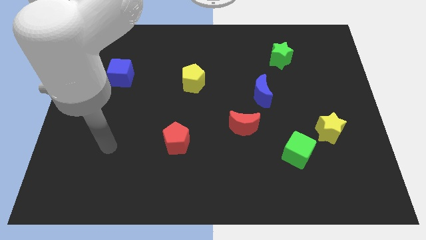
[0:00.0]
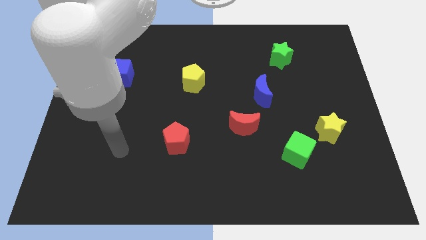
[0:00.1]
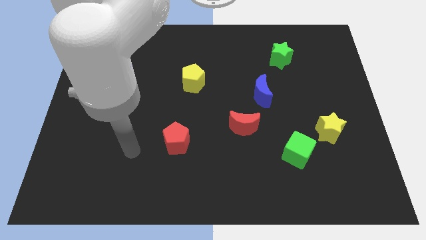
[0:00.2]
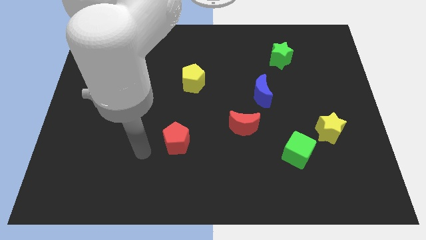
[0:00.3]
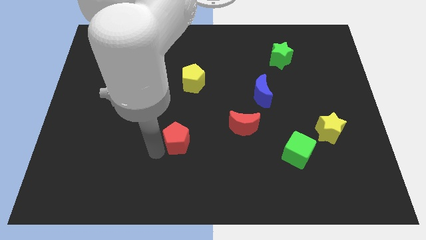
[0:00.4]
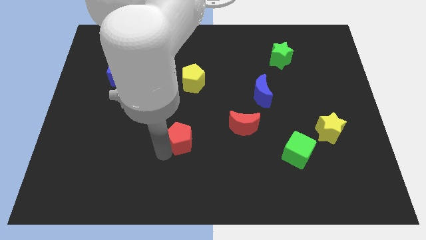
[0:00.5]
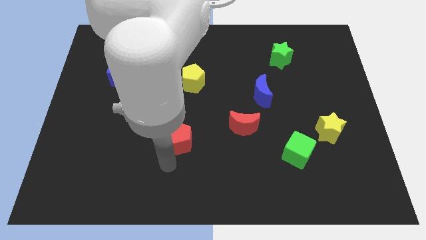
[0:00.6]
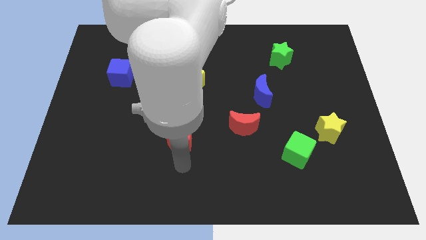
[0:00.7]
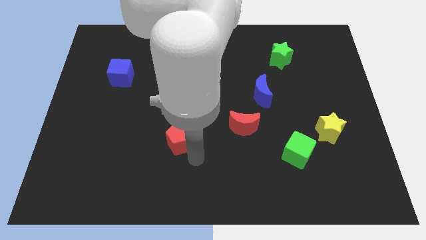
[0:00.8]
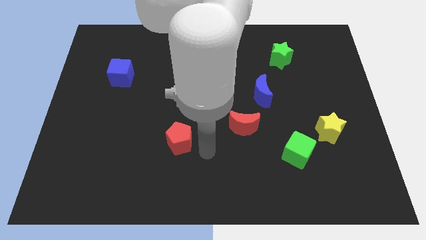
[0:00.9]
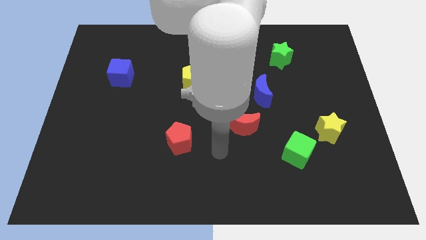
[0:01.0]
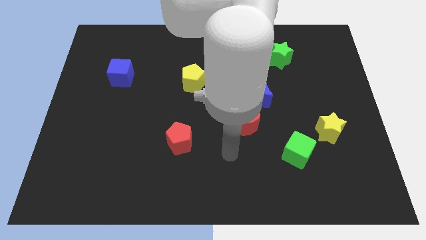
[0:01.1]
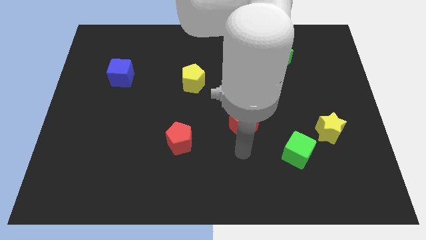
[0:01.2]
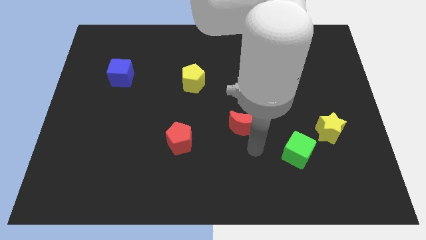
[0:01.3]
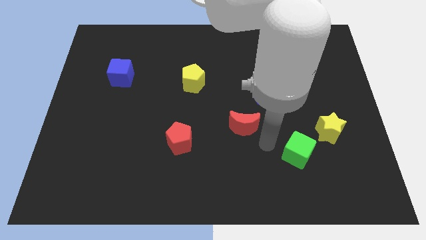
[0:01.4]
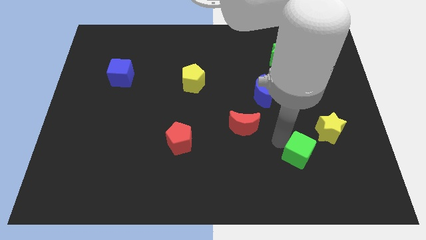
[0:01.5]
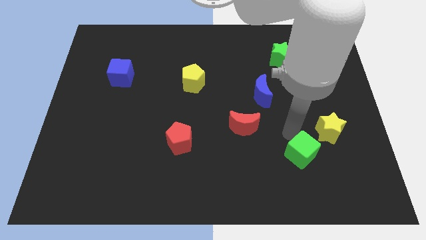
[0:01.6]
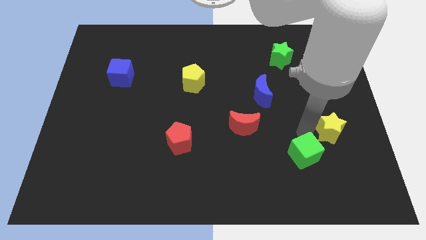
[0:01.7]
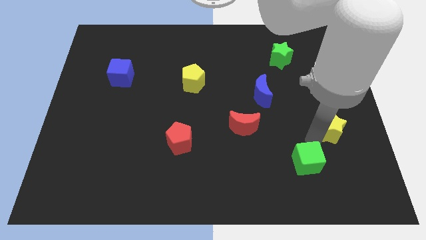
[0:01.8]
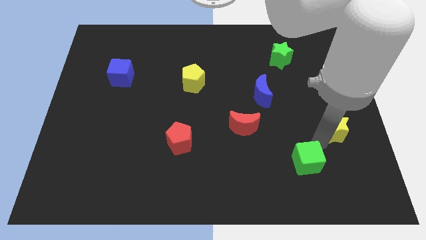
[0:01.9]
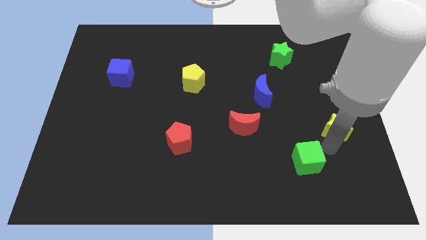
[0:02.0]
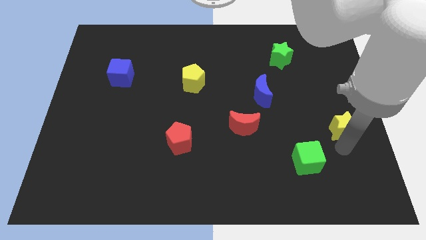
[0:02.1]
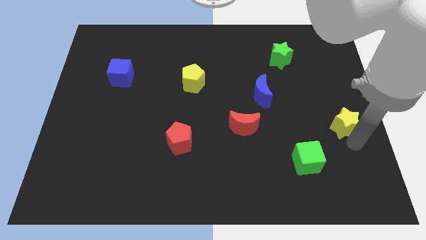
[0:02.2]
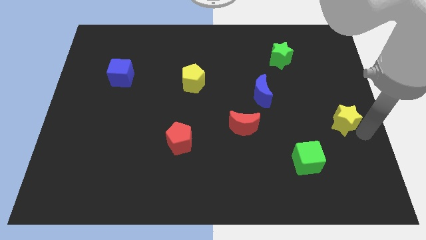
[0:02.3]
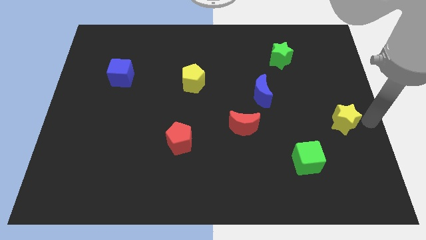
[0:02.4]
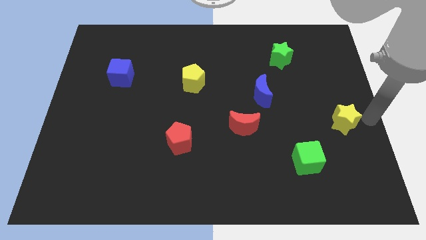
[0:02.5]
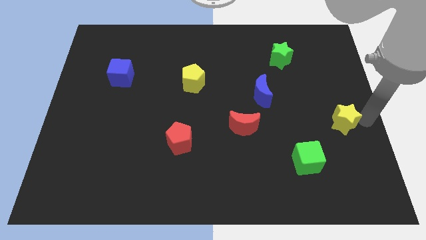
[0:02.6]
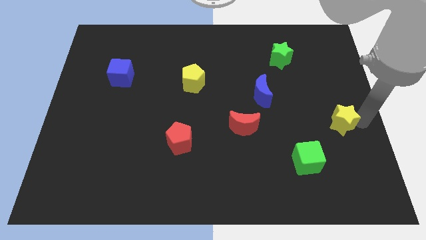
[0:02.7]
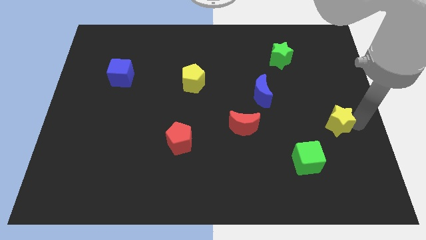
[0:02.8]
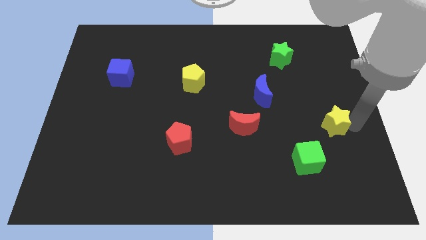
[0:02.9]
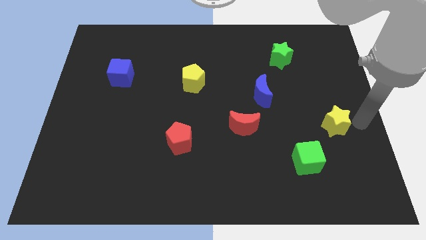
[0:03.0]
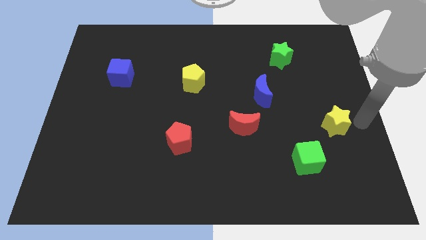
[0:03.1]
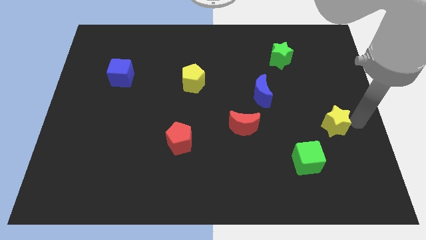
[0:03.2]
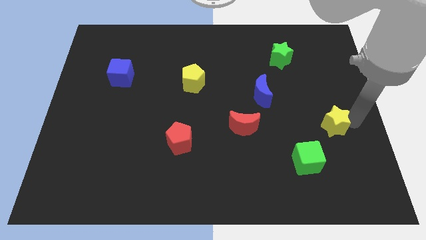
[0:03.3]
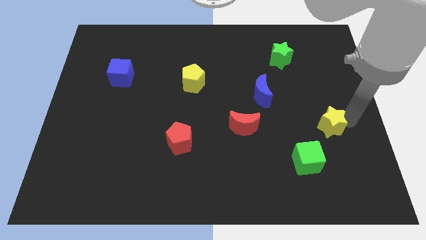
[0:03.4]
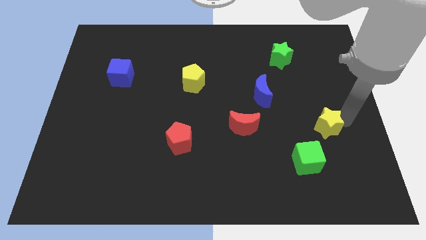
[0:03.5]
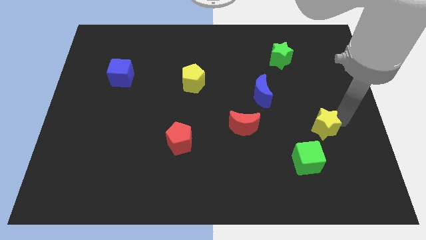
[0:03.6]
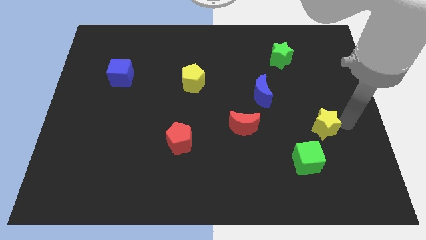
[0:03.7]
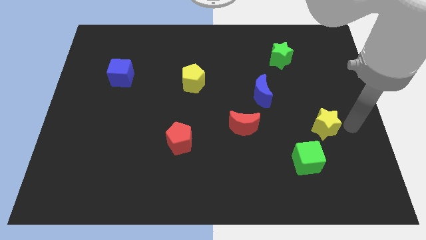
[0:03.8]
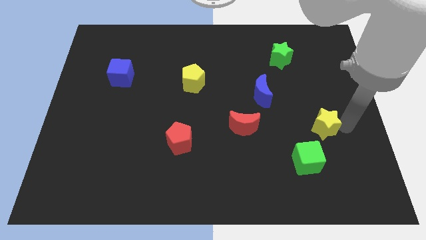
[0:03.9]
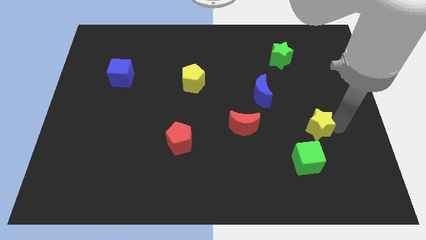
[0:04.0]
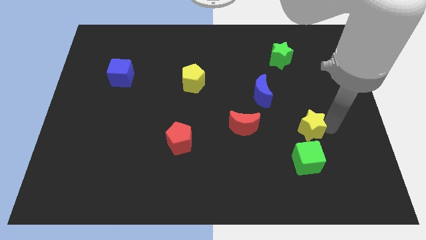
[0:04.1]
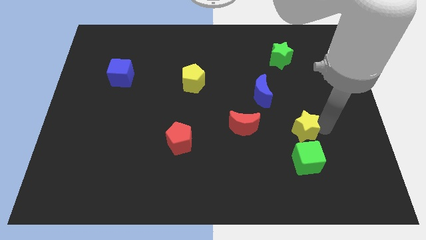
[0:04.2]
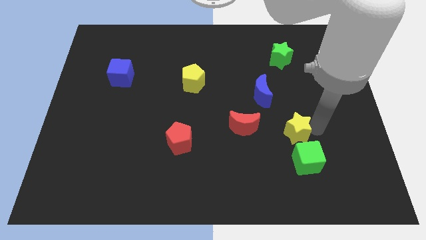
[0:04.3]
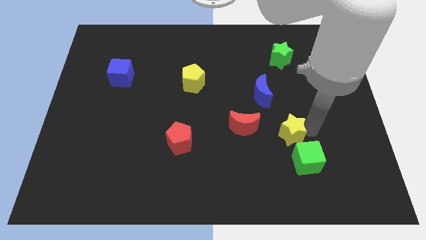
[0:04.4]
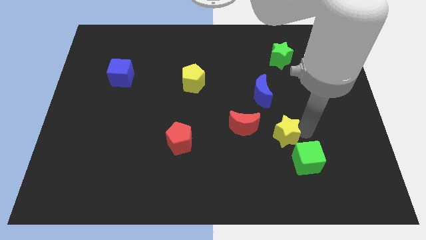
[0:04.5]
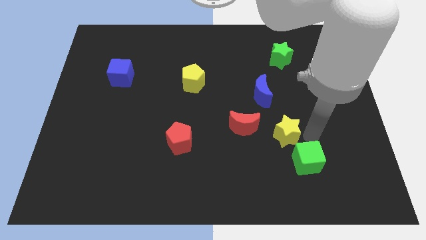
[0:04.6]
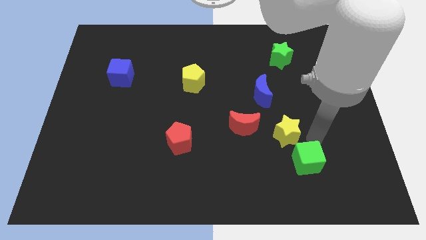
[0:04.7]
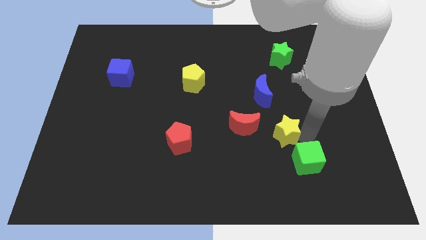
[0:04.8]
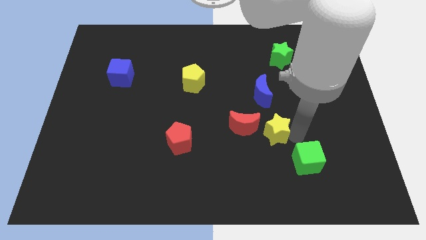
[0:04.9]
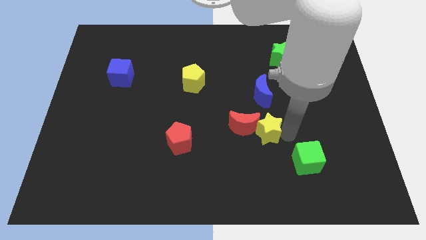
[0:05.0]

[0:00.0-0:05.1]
move the yellow star to the red moon

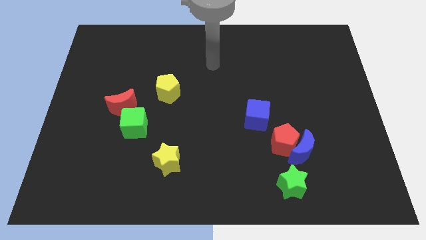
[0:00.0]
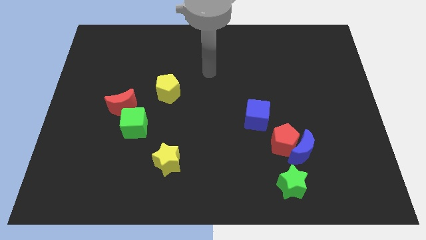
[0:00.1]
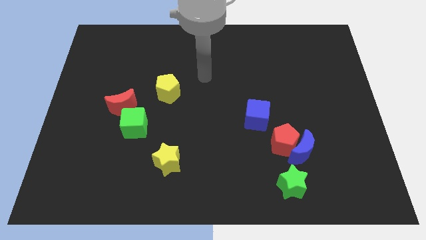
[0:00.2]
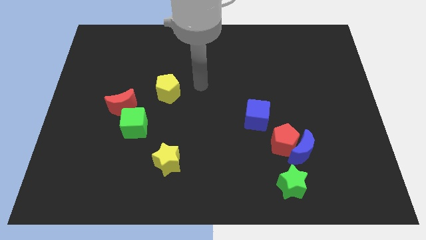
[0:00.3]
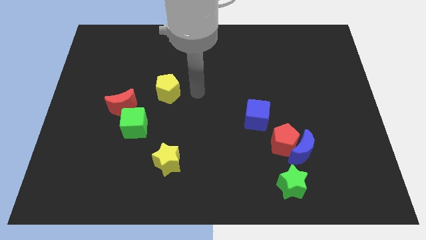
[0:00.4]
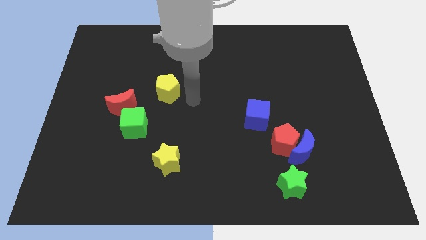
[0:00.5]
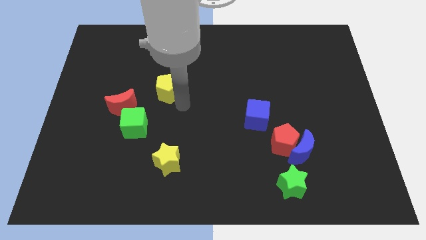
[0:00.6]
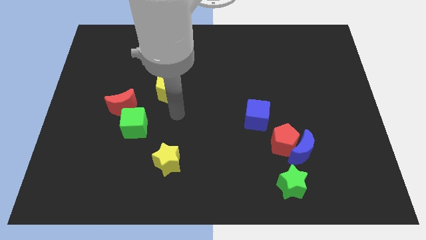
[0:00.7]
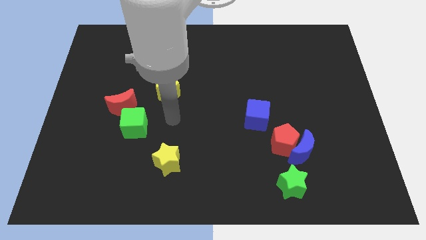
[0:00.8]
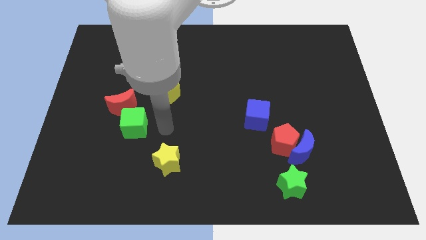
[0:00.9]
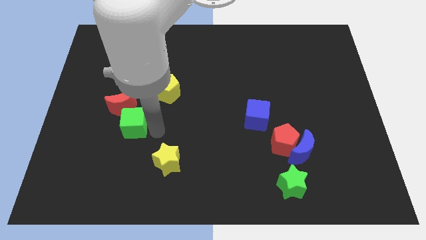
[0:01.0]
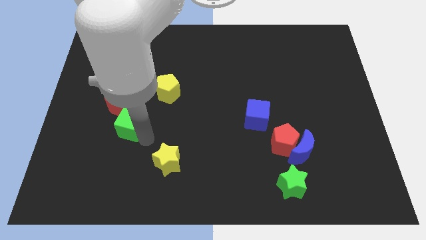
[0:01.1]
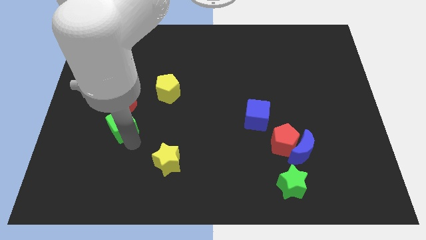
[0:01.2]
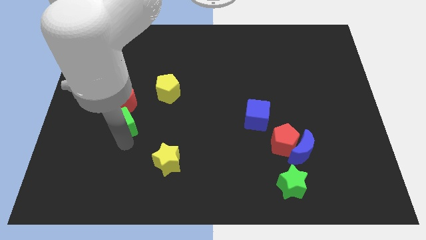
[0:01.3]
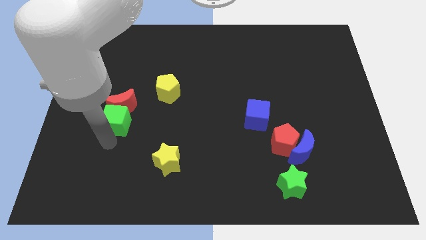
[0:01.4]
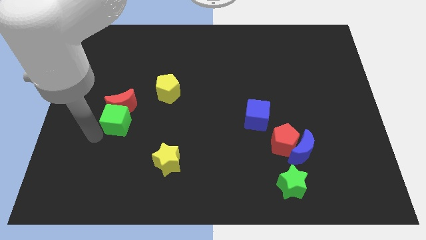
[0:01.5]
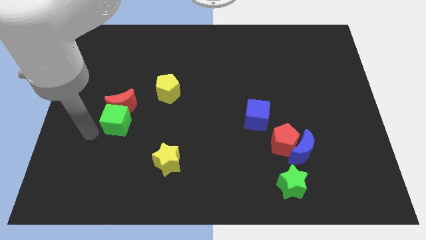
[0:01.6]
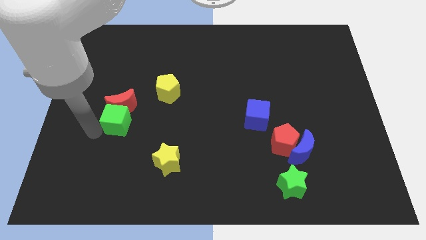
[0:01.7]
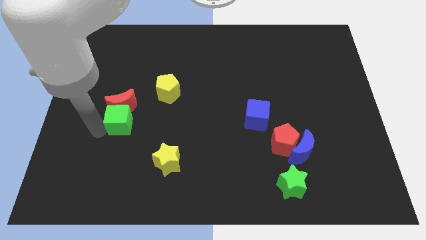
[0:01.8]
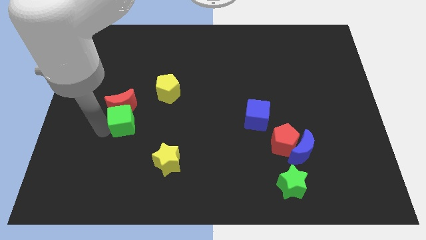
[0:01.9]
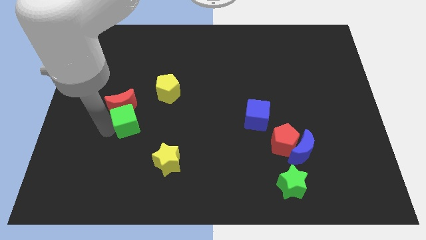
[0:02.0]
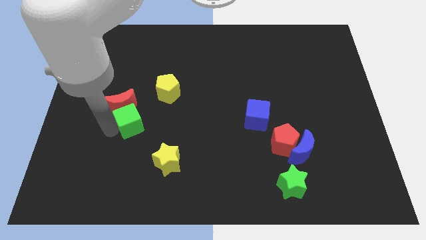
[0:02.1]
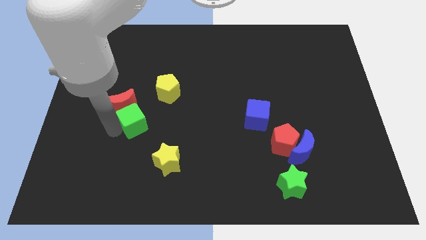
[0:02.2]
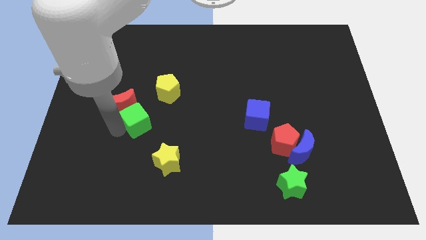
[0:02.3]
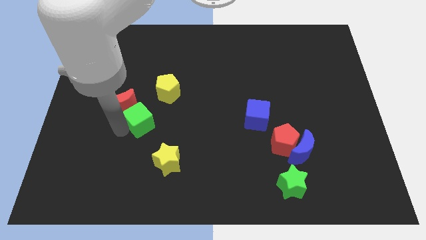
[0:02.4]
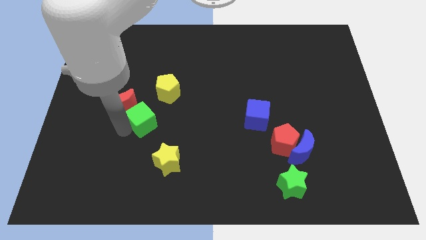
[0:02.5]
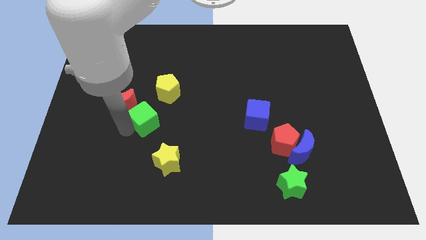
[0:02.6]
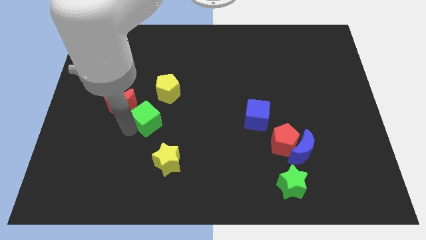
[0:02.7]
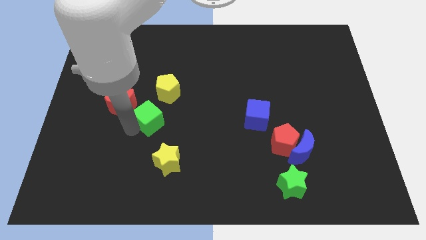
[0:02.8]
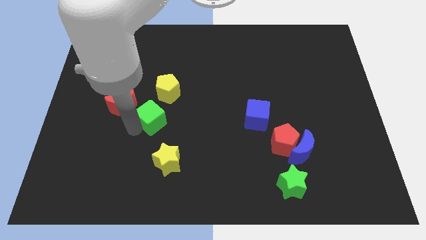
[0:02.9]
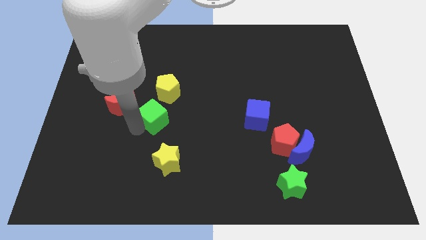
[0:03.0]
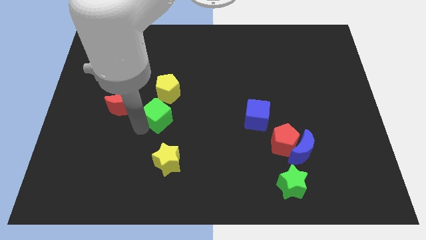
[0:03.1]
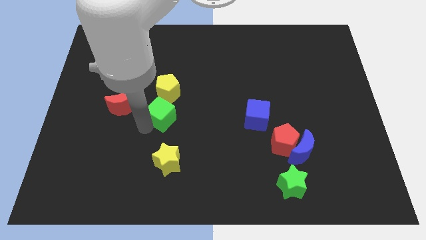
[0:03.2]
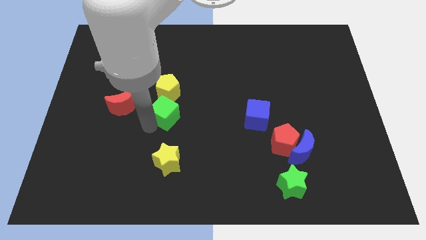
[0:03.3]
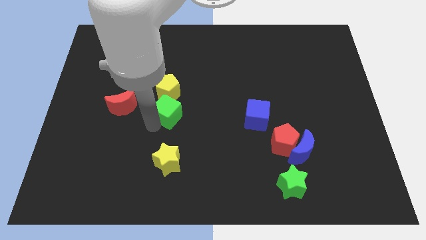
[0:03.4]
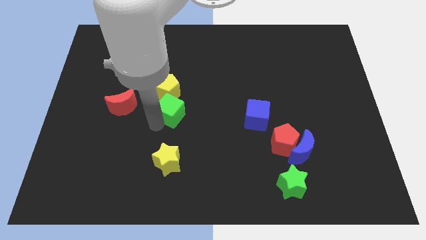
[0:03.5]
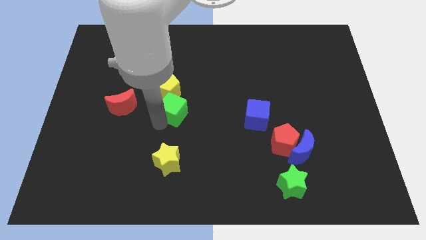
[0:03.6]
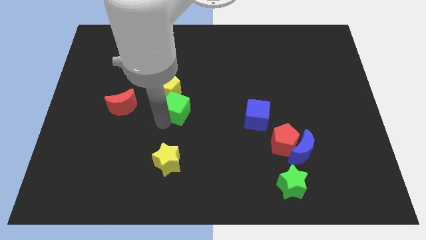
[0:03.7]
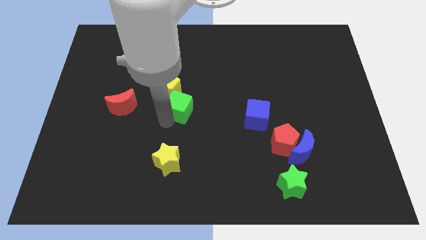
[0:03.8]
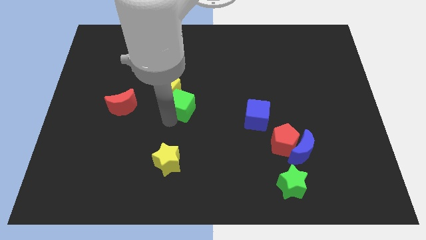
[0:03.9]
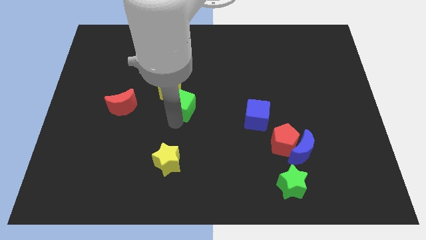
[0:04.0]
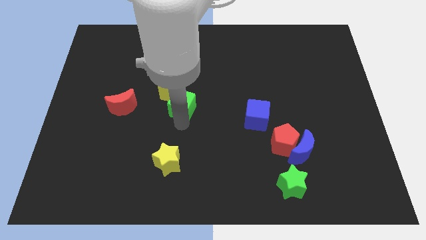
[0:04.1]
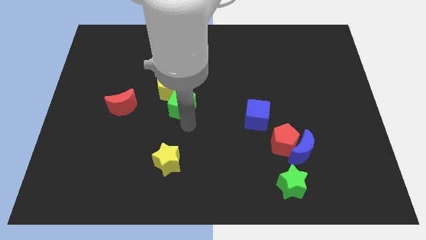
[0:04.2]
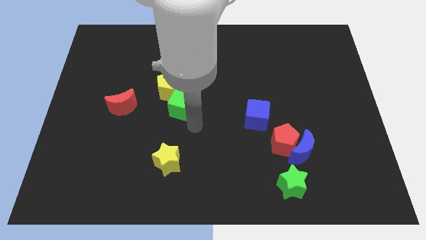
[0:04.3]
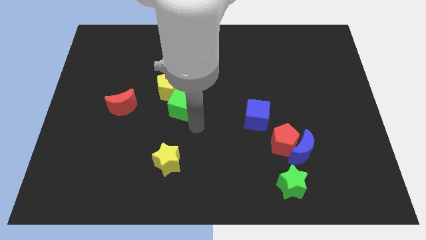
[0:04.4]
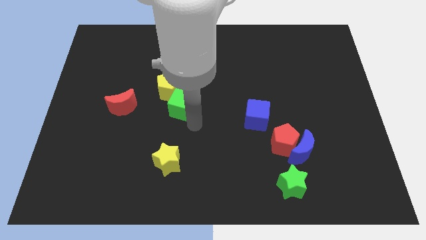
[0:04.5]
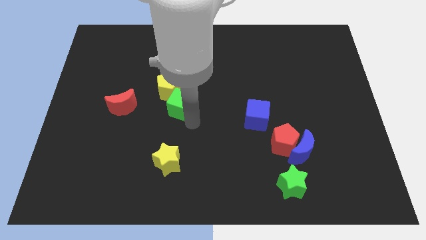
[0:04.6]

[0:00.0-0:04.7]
put the green cube close to the yellow pentagon
